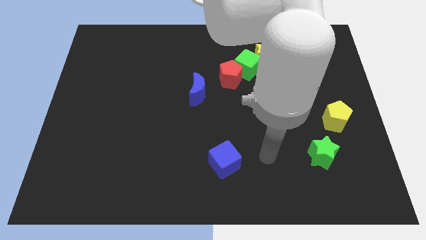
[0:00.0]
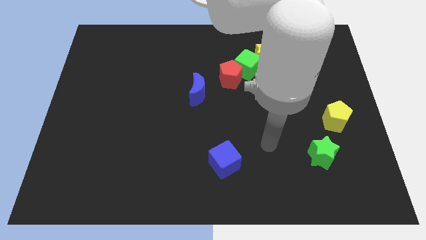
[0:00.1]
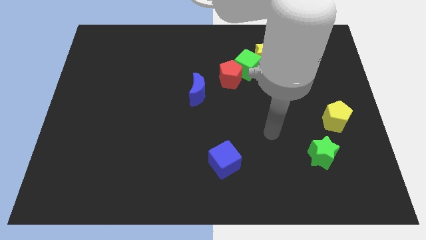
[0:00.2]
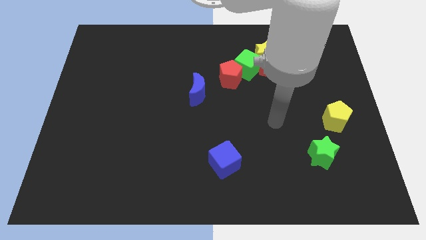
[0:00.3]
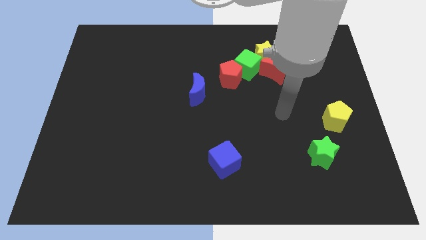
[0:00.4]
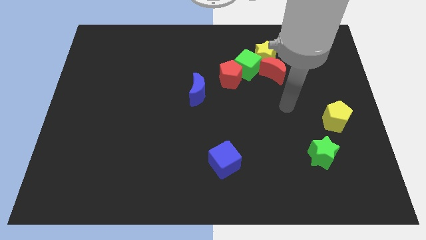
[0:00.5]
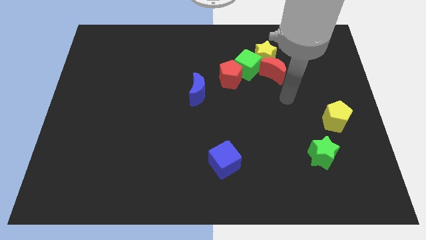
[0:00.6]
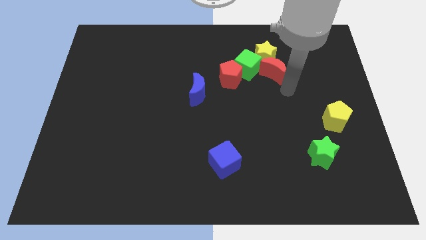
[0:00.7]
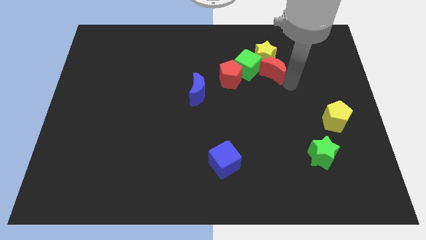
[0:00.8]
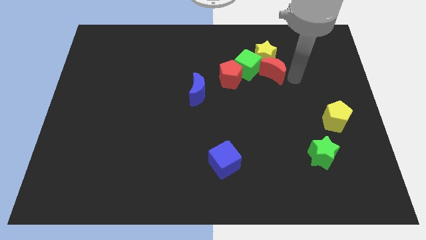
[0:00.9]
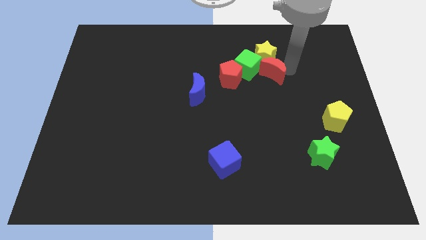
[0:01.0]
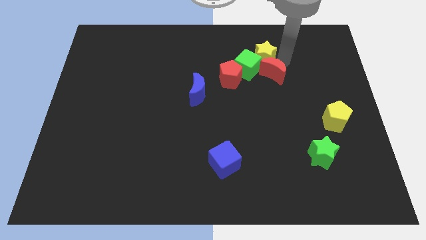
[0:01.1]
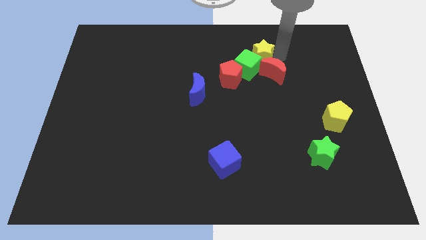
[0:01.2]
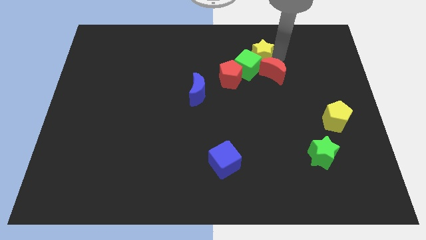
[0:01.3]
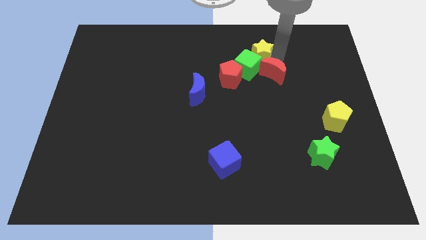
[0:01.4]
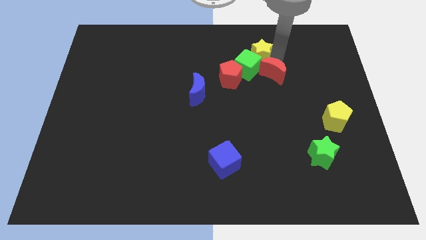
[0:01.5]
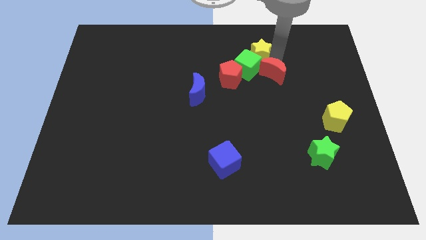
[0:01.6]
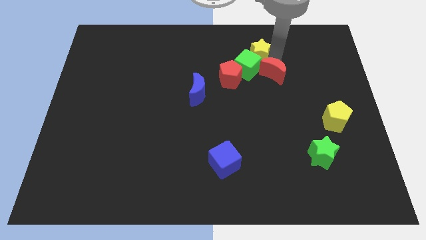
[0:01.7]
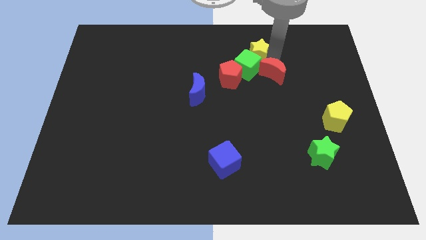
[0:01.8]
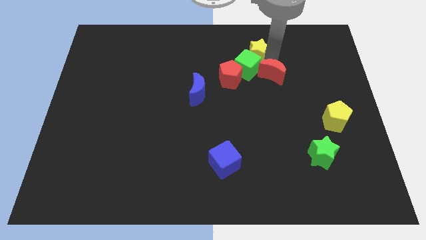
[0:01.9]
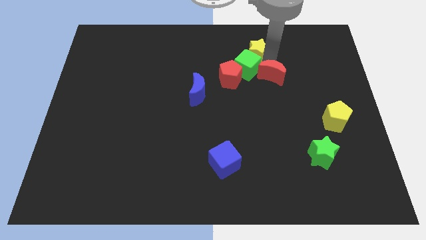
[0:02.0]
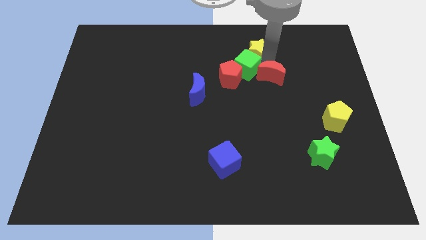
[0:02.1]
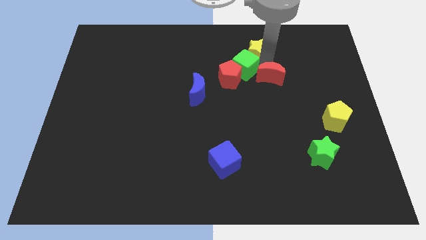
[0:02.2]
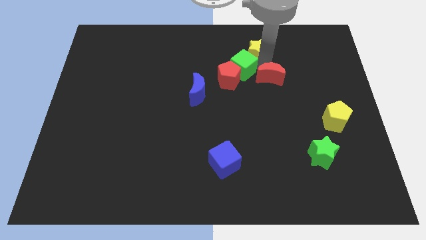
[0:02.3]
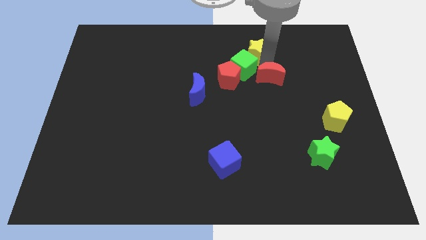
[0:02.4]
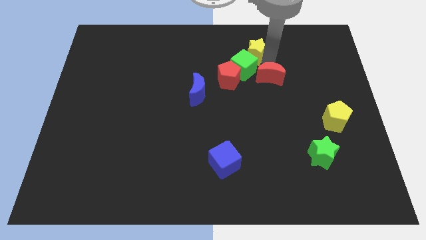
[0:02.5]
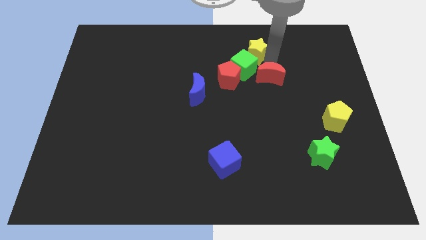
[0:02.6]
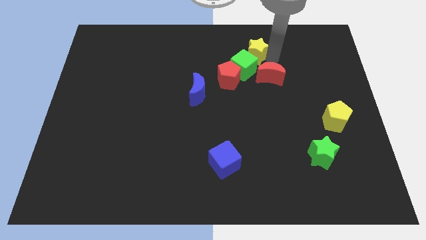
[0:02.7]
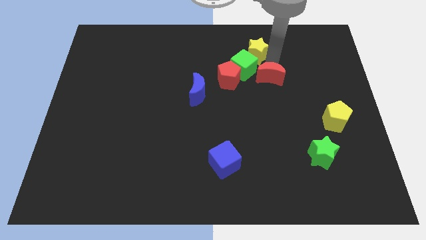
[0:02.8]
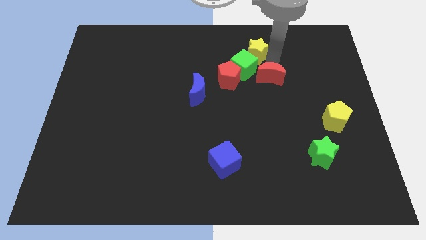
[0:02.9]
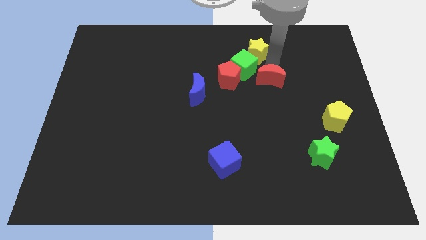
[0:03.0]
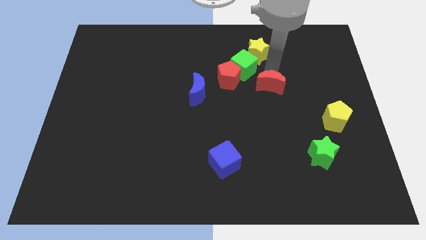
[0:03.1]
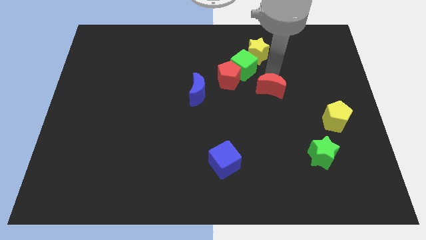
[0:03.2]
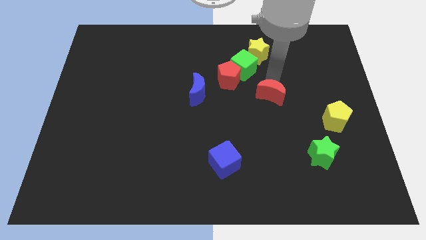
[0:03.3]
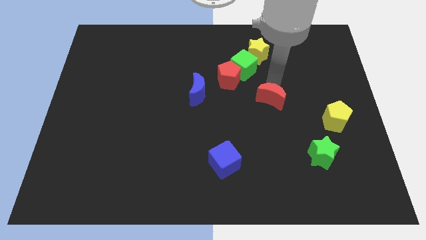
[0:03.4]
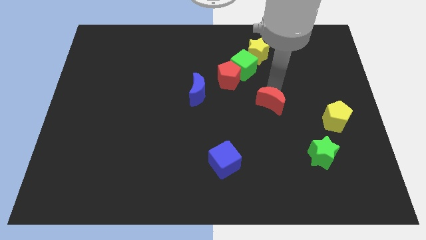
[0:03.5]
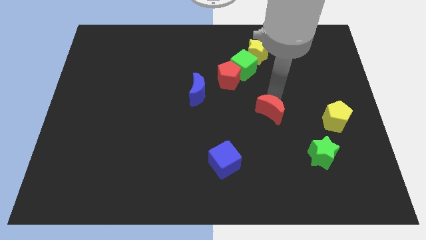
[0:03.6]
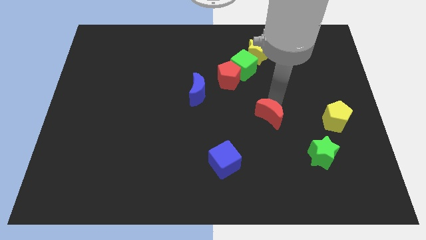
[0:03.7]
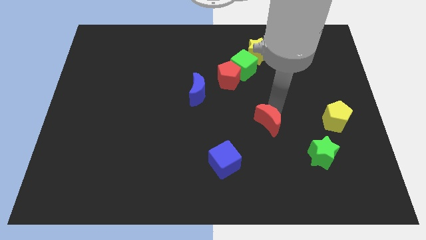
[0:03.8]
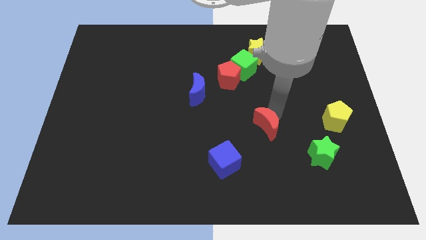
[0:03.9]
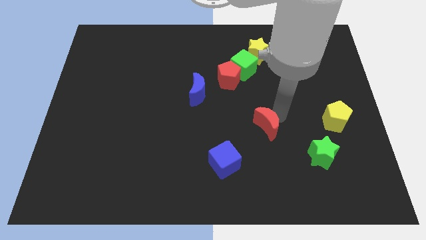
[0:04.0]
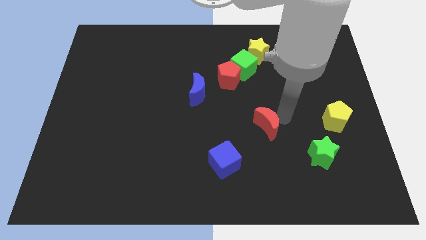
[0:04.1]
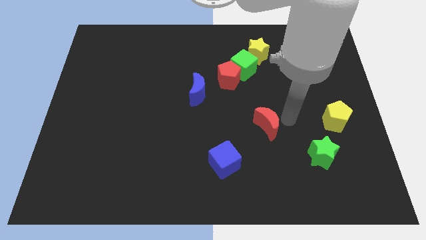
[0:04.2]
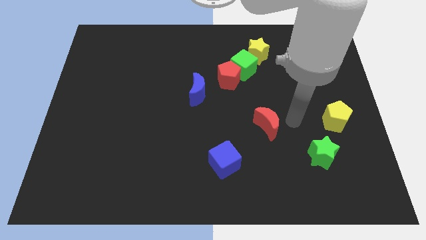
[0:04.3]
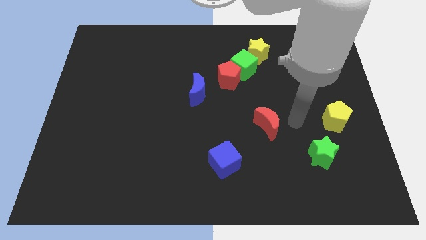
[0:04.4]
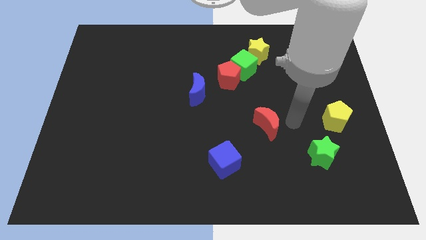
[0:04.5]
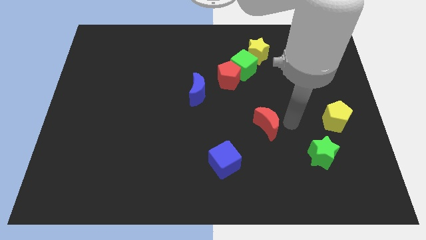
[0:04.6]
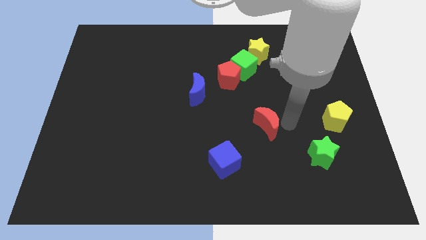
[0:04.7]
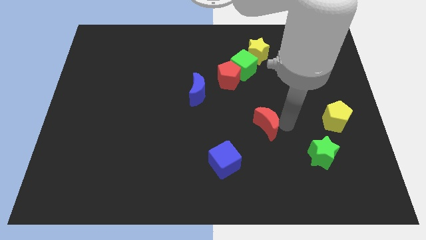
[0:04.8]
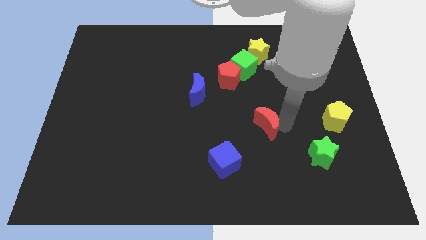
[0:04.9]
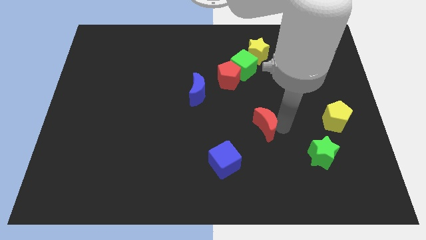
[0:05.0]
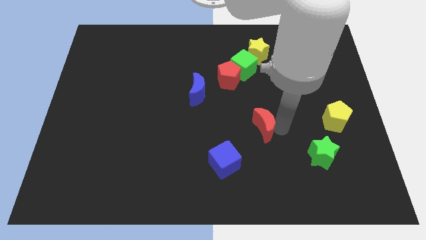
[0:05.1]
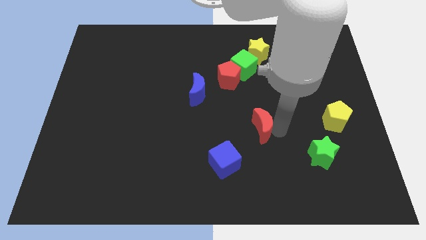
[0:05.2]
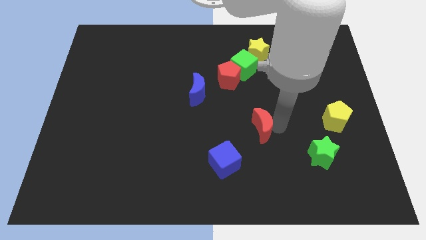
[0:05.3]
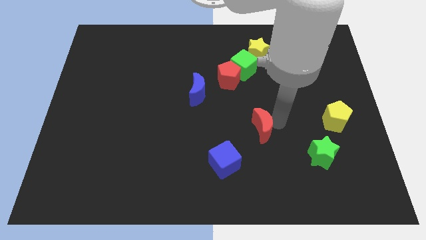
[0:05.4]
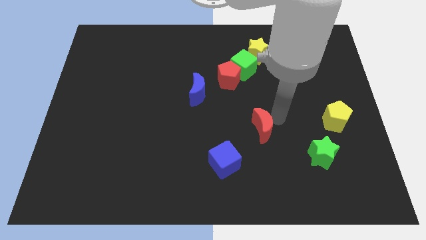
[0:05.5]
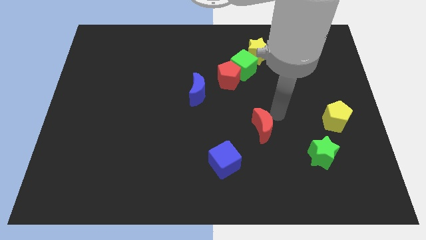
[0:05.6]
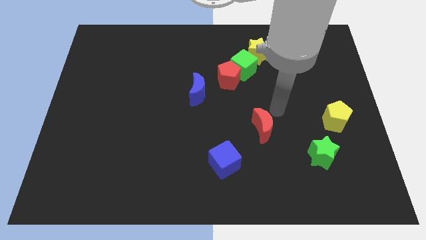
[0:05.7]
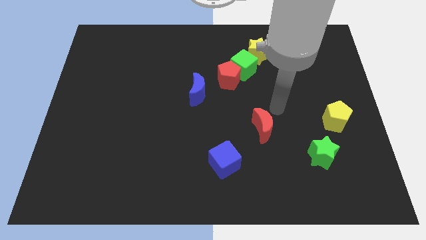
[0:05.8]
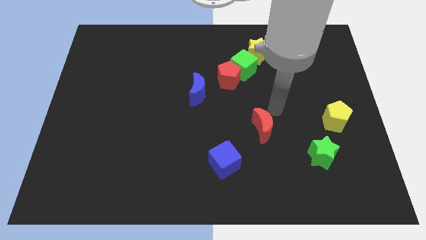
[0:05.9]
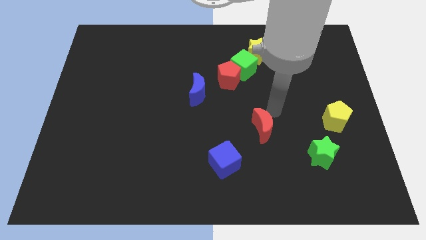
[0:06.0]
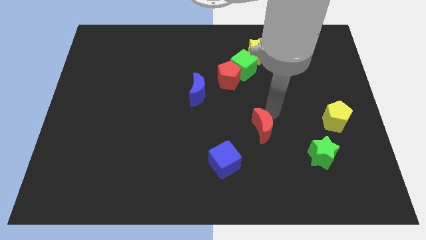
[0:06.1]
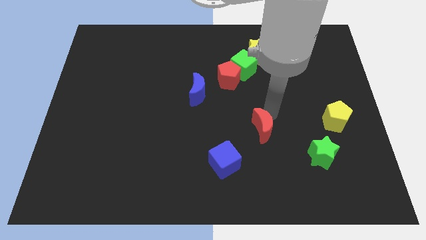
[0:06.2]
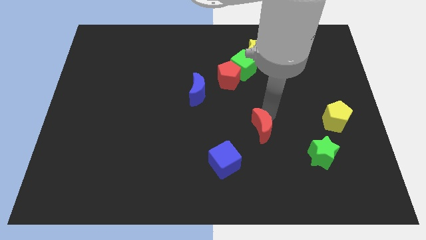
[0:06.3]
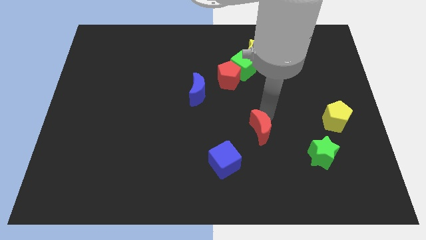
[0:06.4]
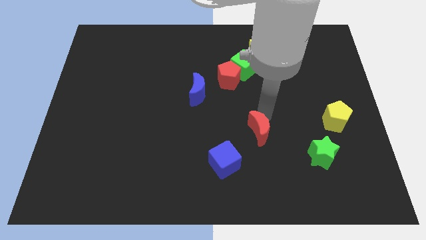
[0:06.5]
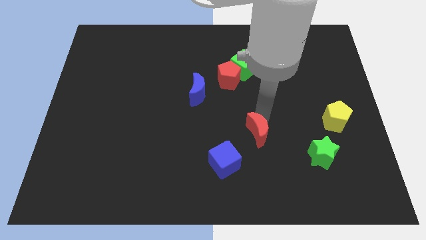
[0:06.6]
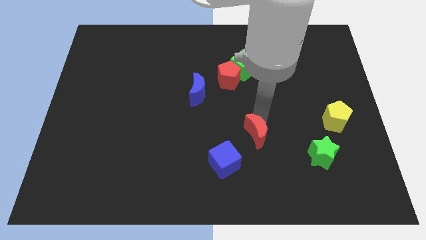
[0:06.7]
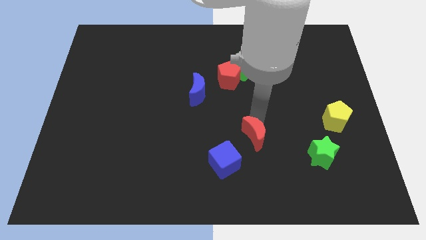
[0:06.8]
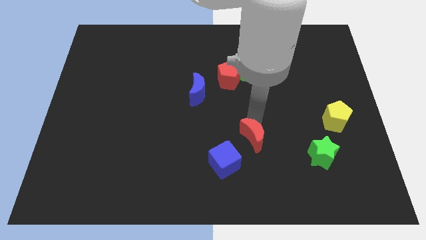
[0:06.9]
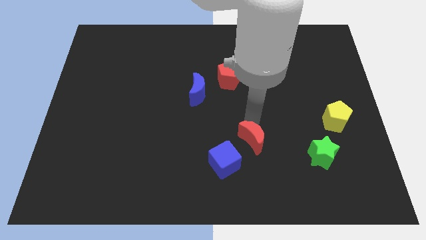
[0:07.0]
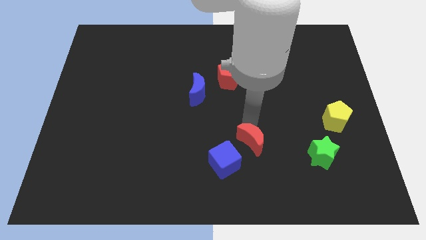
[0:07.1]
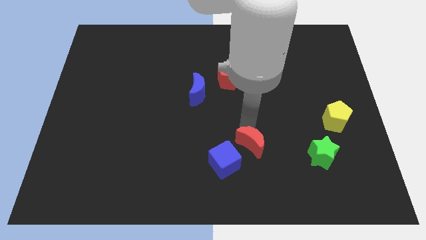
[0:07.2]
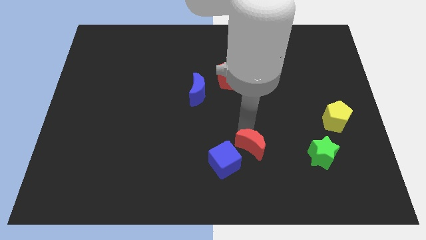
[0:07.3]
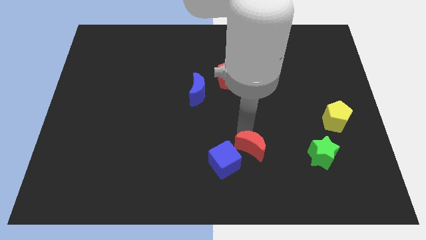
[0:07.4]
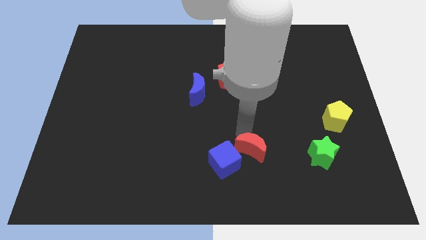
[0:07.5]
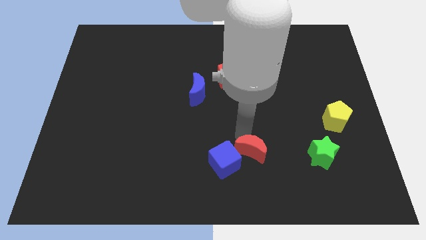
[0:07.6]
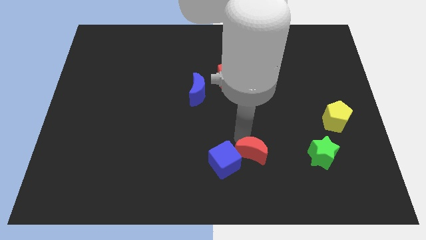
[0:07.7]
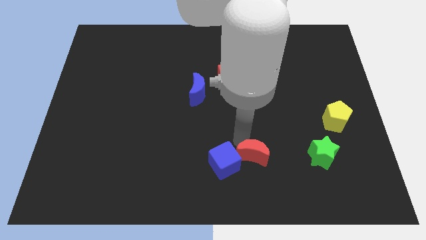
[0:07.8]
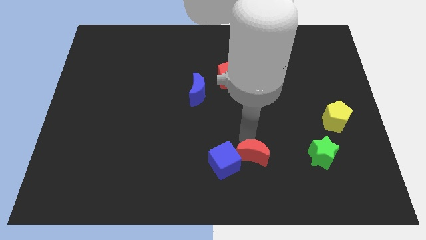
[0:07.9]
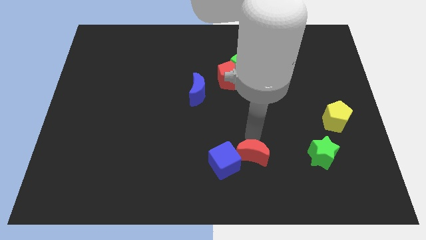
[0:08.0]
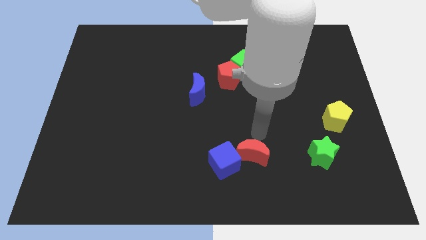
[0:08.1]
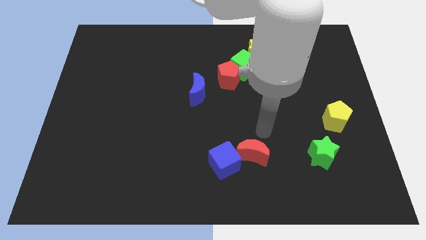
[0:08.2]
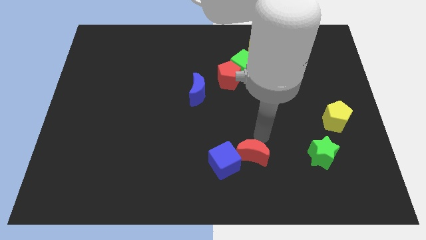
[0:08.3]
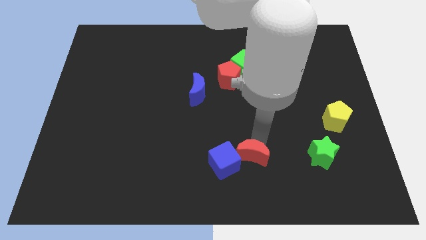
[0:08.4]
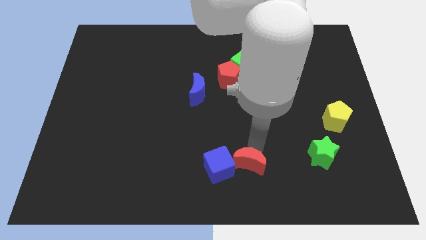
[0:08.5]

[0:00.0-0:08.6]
slide the red moon to the bottom
